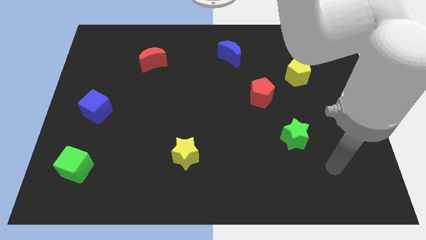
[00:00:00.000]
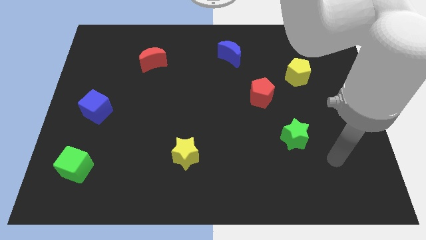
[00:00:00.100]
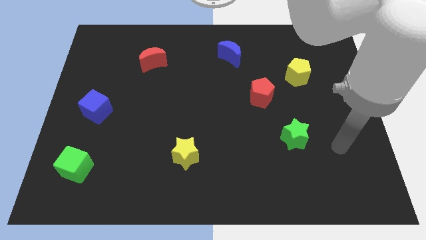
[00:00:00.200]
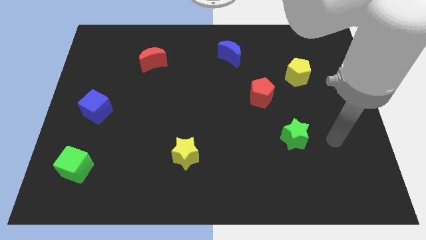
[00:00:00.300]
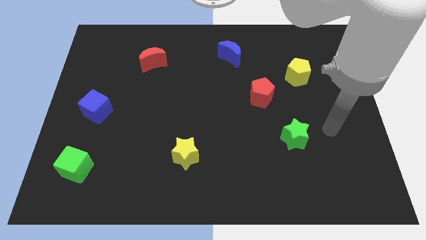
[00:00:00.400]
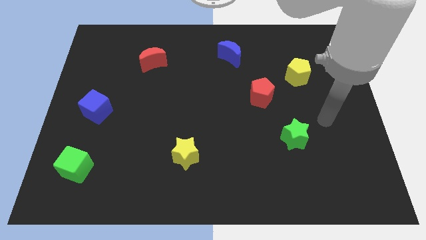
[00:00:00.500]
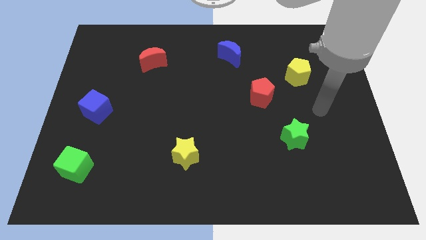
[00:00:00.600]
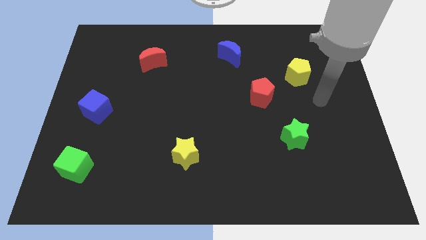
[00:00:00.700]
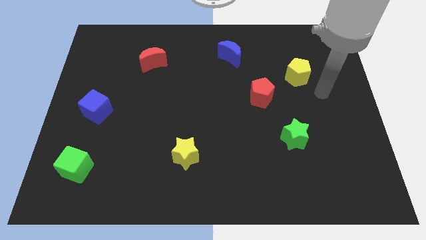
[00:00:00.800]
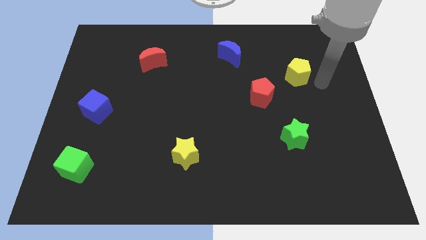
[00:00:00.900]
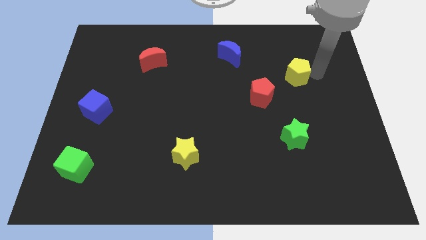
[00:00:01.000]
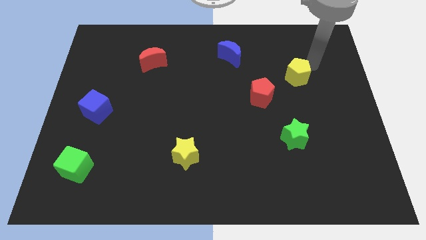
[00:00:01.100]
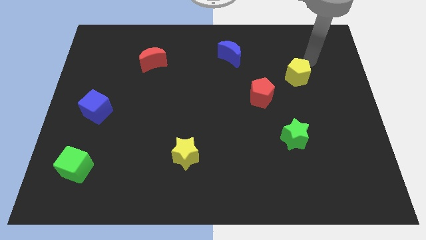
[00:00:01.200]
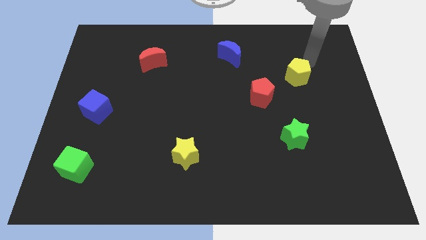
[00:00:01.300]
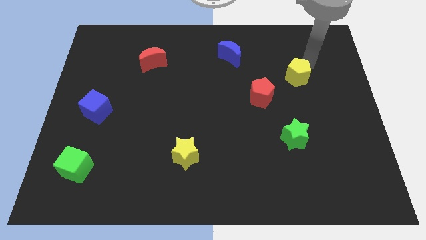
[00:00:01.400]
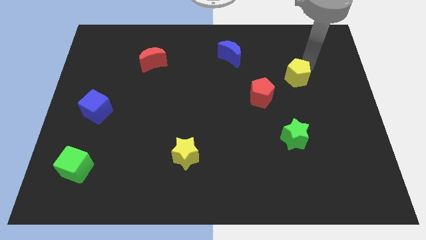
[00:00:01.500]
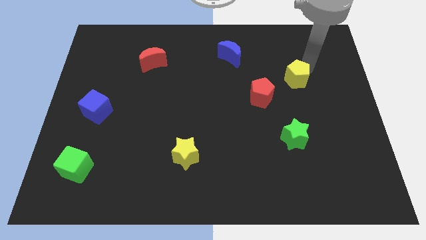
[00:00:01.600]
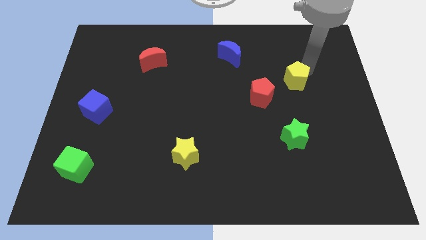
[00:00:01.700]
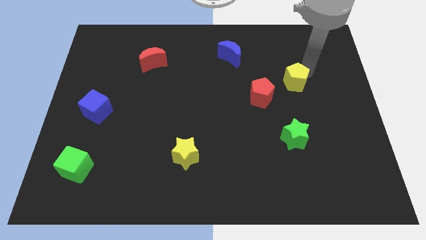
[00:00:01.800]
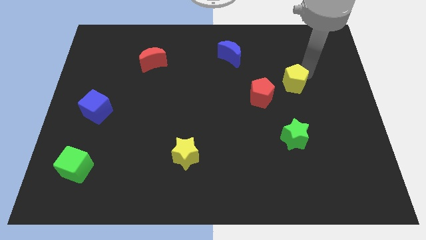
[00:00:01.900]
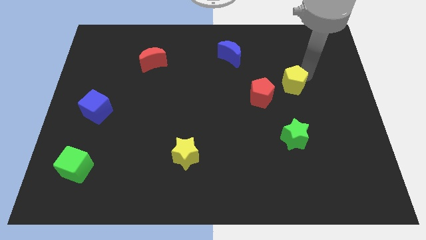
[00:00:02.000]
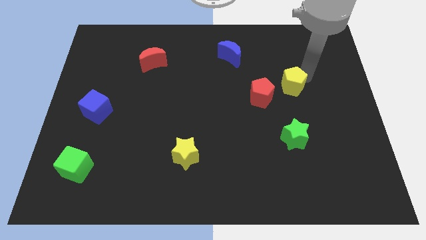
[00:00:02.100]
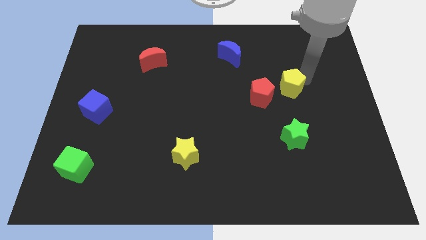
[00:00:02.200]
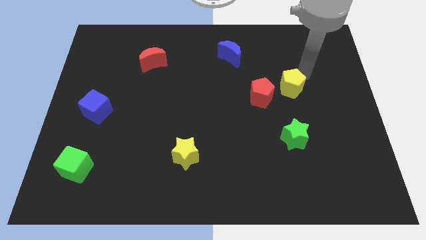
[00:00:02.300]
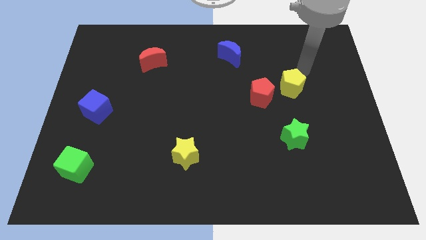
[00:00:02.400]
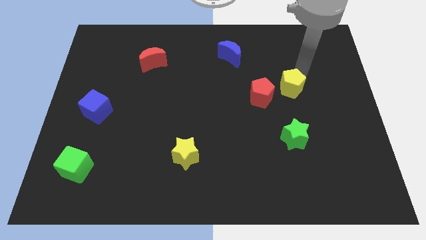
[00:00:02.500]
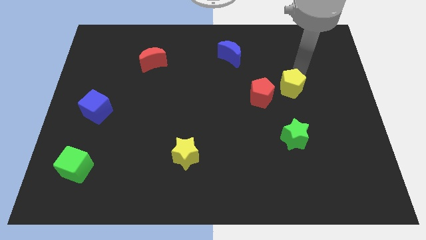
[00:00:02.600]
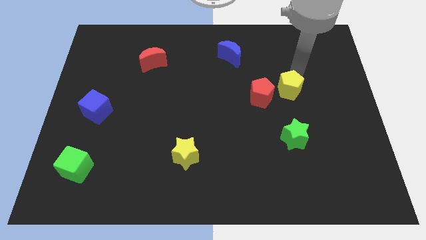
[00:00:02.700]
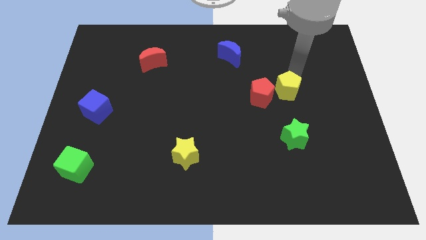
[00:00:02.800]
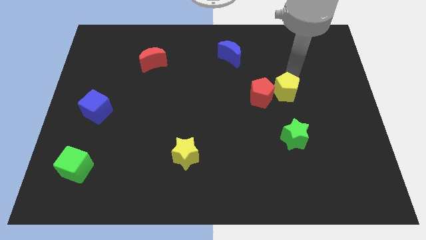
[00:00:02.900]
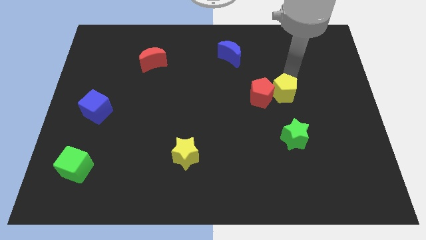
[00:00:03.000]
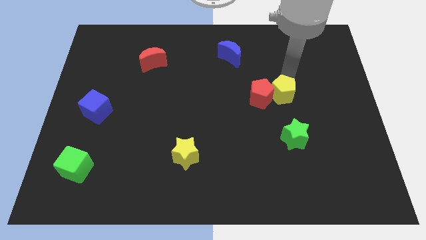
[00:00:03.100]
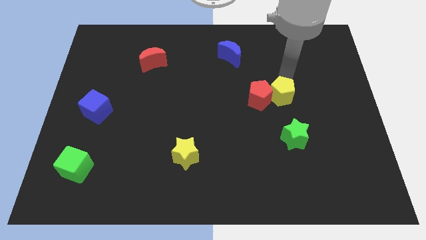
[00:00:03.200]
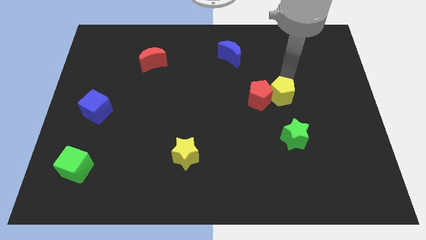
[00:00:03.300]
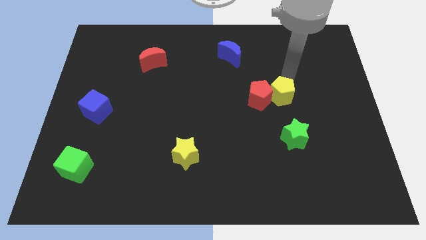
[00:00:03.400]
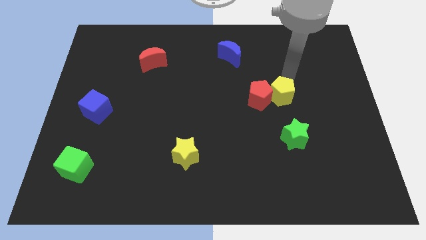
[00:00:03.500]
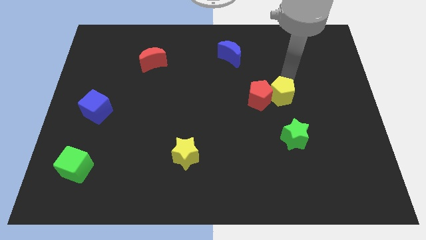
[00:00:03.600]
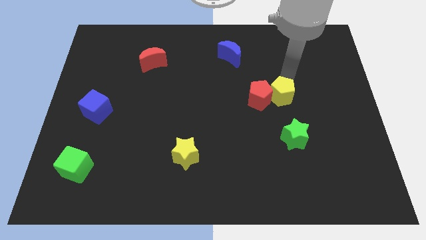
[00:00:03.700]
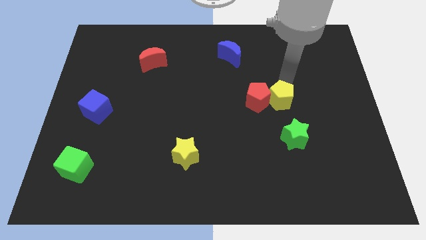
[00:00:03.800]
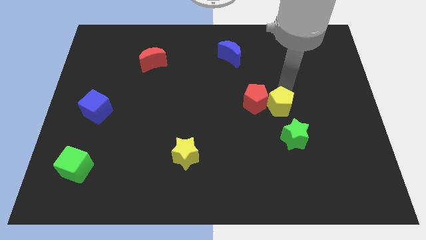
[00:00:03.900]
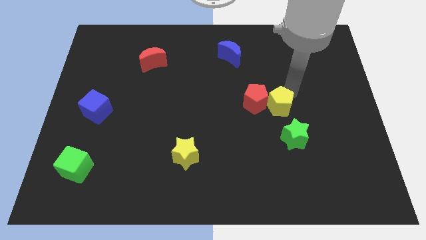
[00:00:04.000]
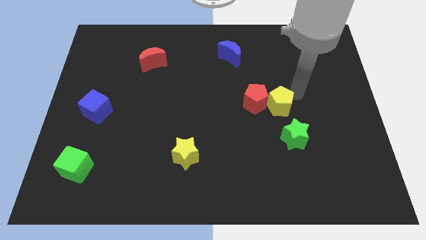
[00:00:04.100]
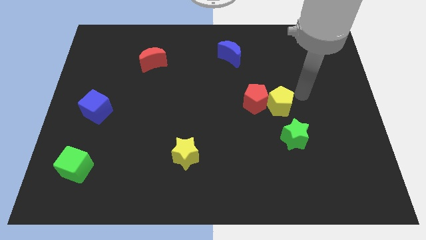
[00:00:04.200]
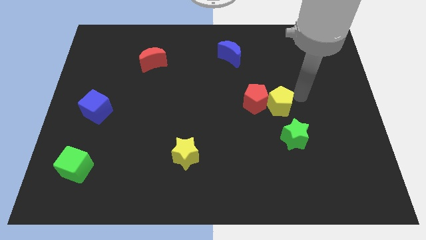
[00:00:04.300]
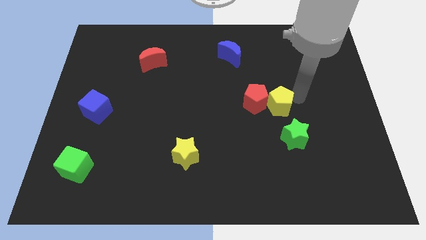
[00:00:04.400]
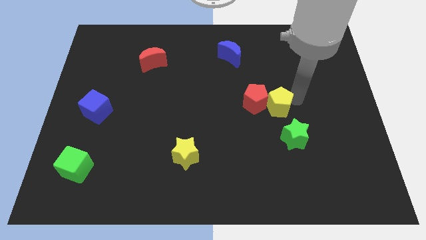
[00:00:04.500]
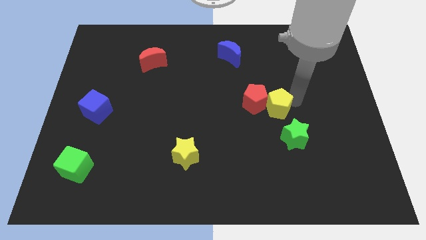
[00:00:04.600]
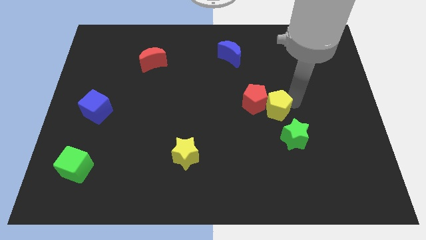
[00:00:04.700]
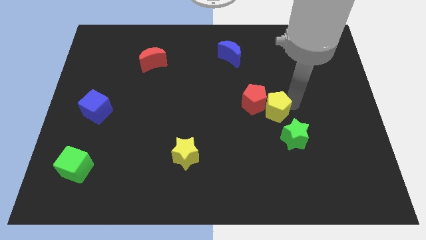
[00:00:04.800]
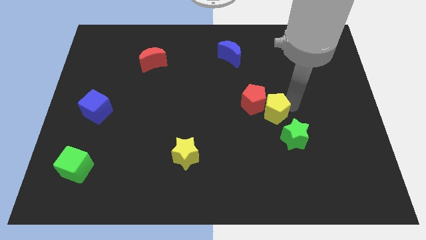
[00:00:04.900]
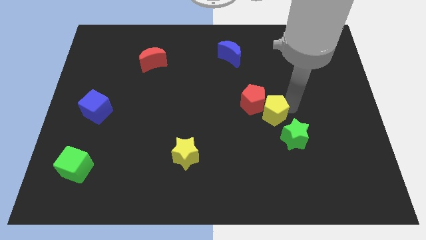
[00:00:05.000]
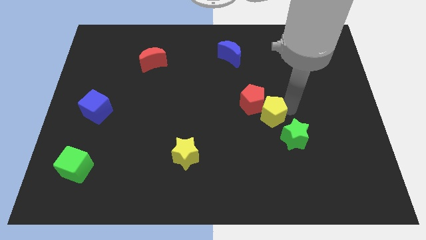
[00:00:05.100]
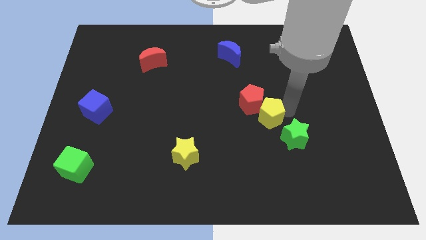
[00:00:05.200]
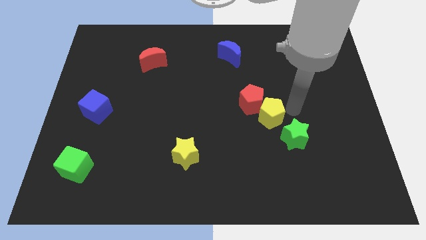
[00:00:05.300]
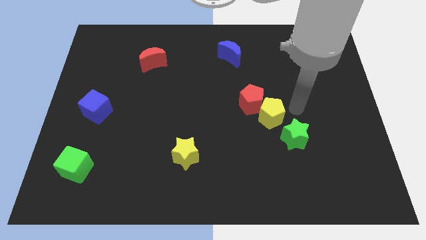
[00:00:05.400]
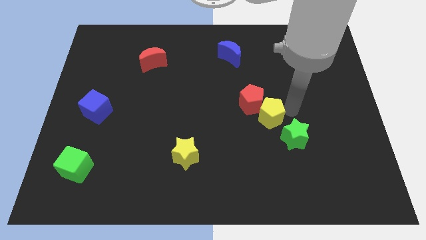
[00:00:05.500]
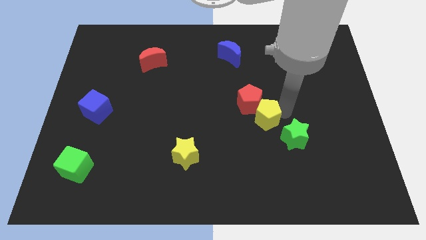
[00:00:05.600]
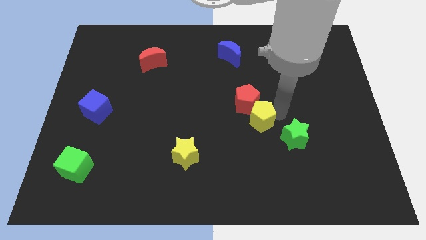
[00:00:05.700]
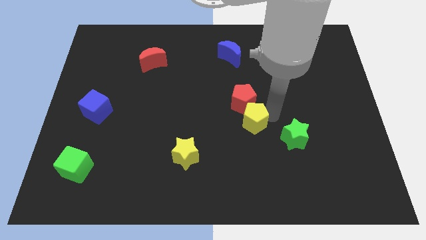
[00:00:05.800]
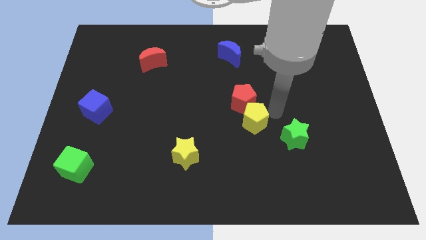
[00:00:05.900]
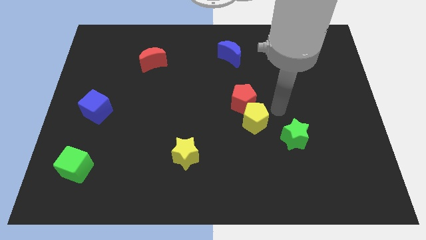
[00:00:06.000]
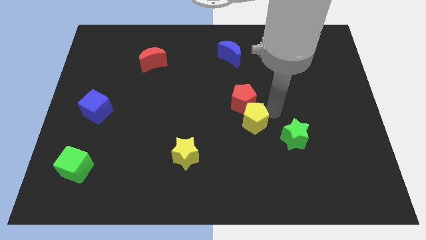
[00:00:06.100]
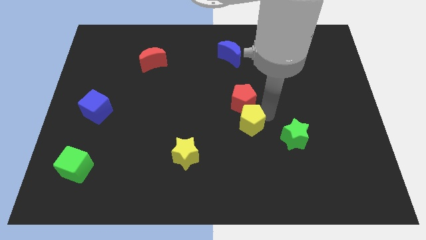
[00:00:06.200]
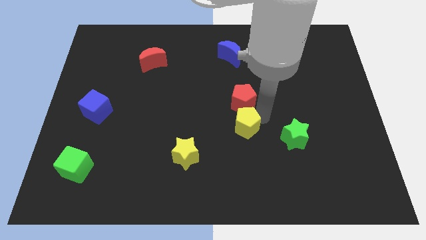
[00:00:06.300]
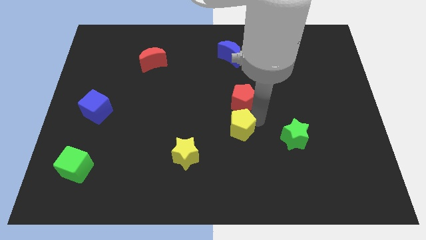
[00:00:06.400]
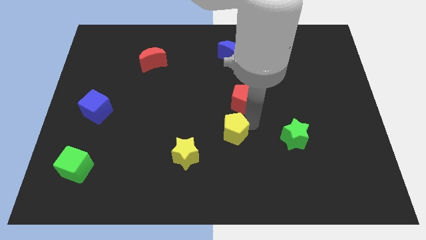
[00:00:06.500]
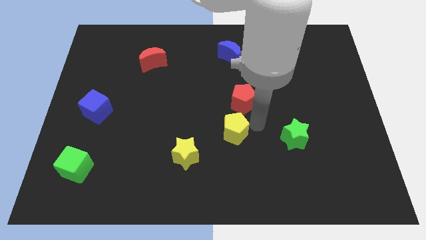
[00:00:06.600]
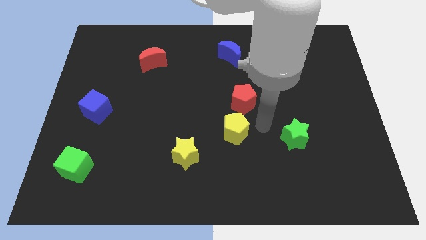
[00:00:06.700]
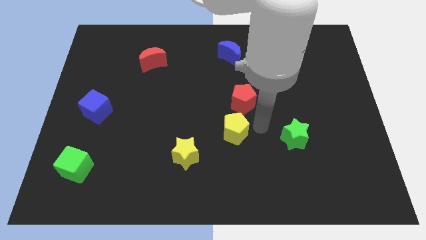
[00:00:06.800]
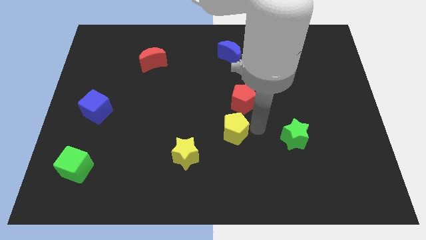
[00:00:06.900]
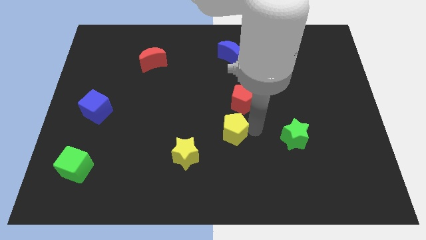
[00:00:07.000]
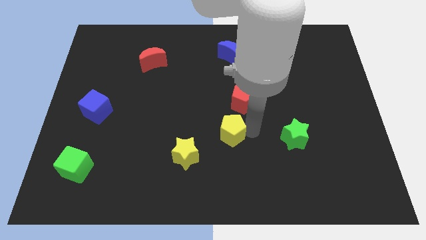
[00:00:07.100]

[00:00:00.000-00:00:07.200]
put the yellow pentagon diagonally up and to the right of the yellow star

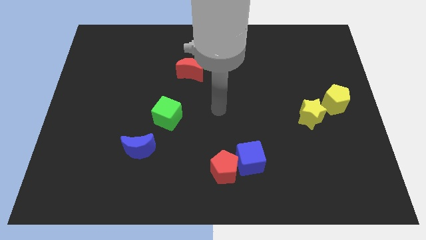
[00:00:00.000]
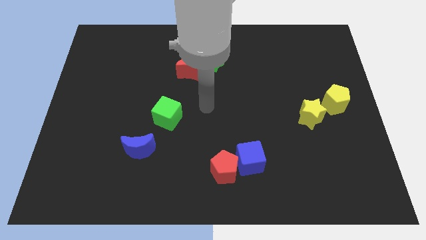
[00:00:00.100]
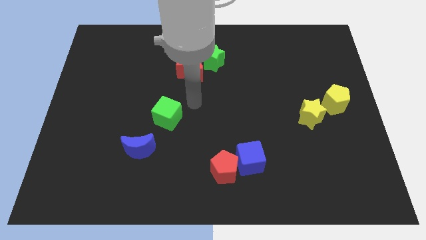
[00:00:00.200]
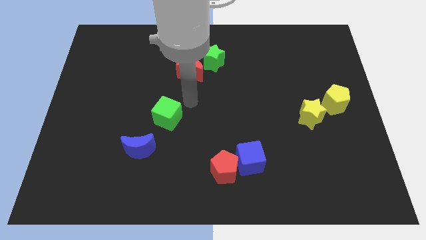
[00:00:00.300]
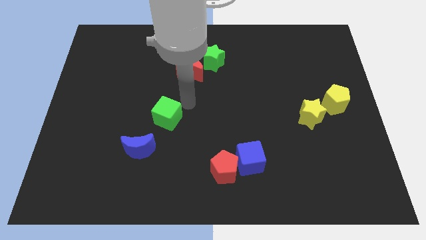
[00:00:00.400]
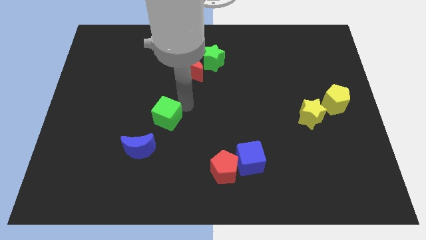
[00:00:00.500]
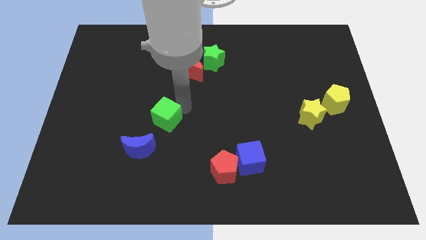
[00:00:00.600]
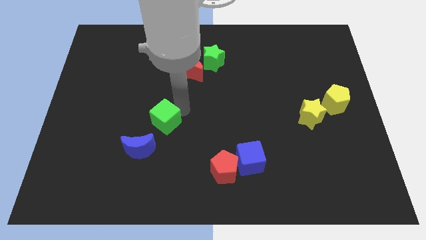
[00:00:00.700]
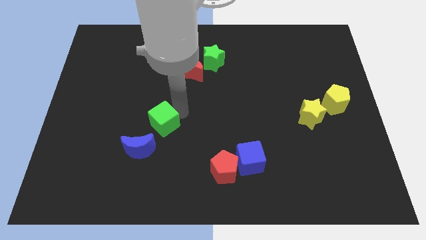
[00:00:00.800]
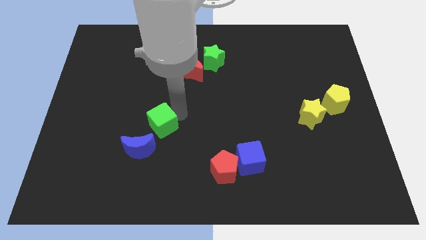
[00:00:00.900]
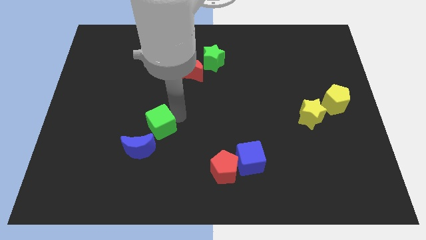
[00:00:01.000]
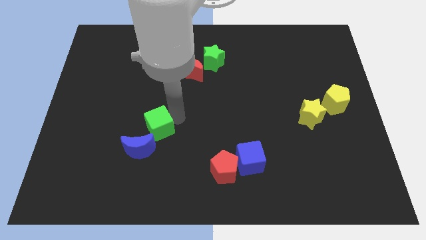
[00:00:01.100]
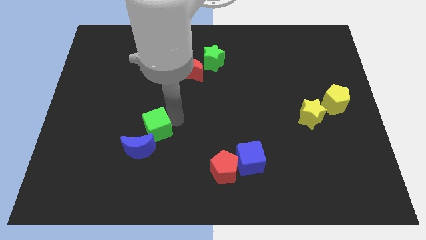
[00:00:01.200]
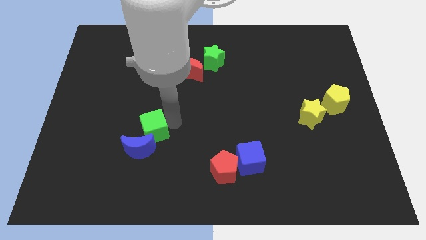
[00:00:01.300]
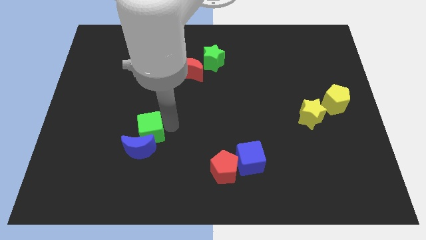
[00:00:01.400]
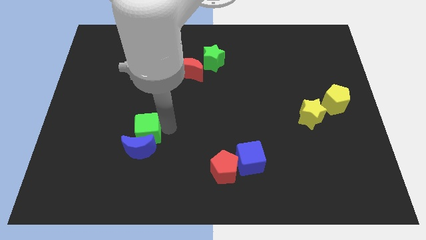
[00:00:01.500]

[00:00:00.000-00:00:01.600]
slide the green cube to the top left of the blue moon
